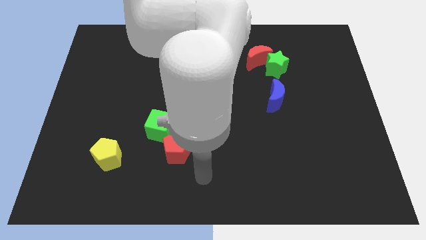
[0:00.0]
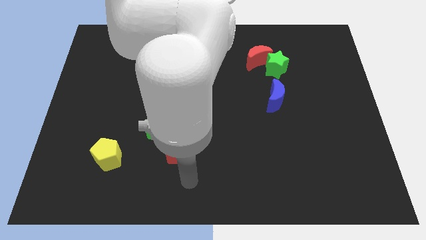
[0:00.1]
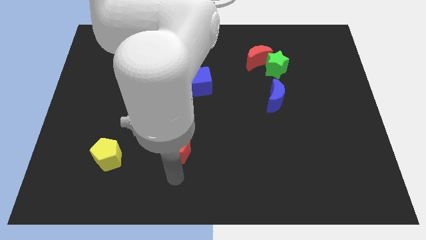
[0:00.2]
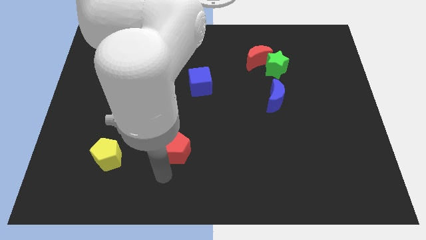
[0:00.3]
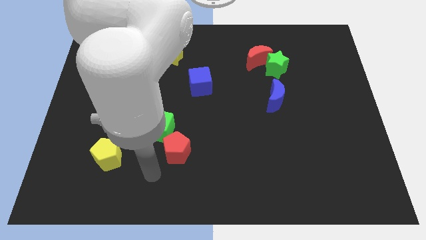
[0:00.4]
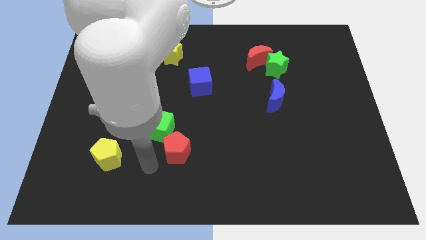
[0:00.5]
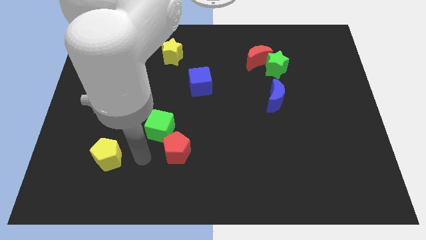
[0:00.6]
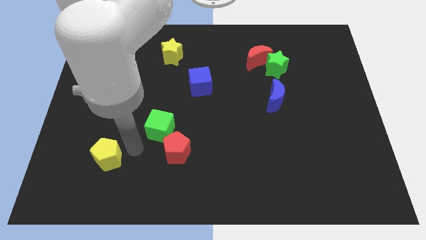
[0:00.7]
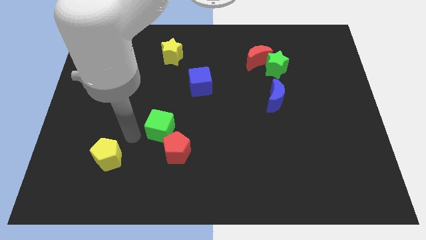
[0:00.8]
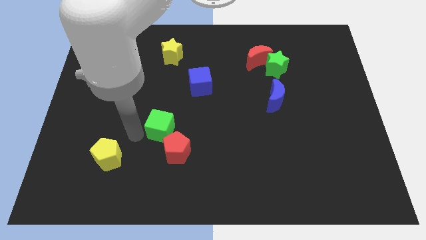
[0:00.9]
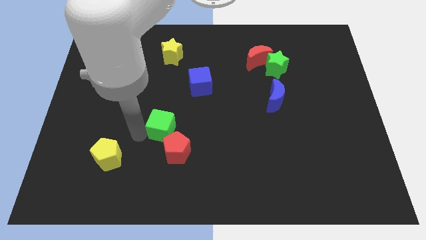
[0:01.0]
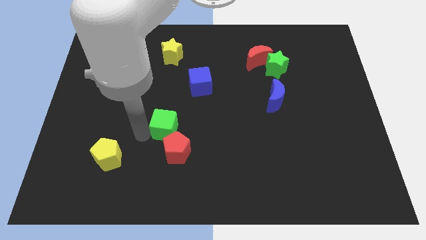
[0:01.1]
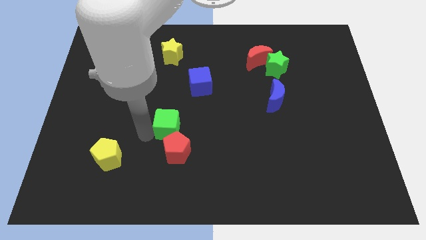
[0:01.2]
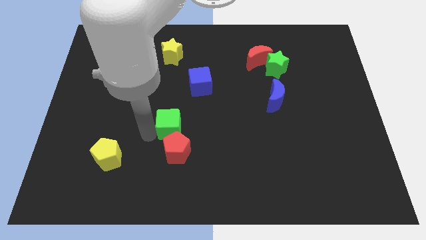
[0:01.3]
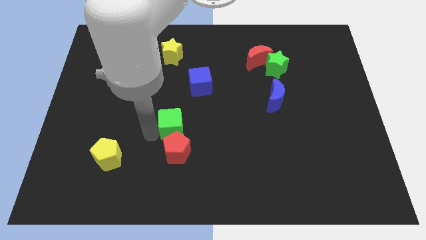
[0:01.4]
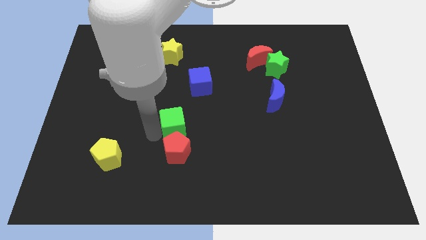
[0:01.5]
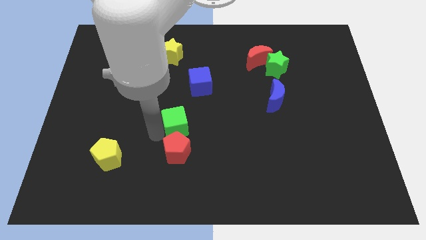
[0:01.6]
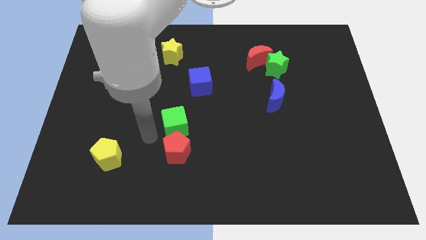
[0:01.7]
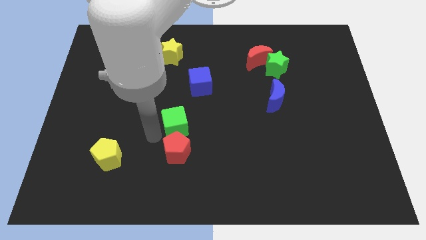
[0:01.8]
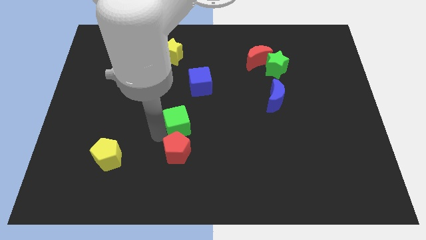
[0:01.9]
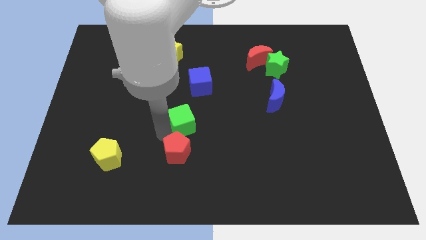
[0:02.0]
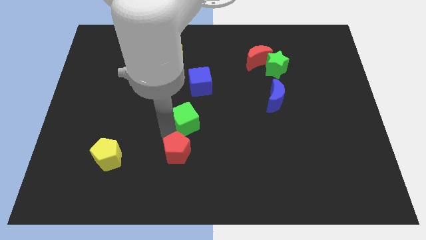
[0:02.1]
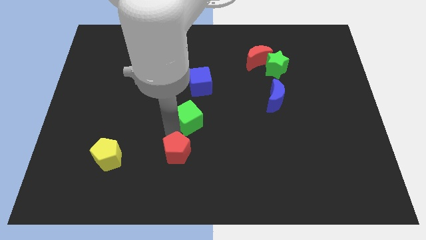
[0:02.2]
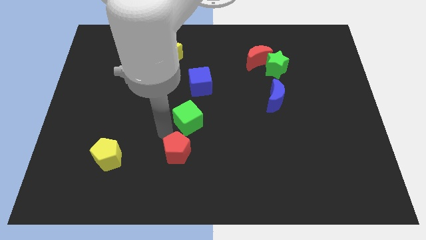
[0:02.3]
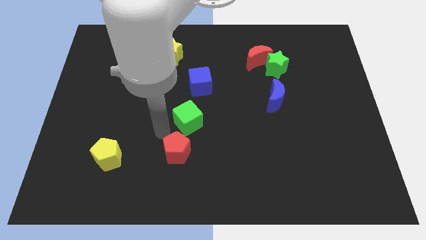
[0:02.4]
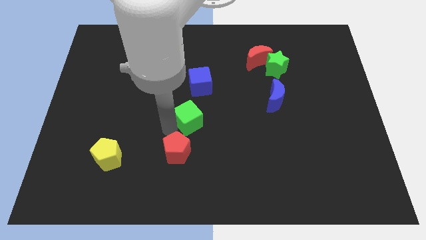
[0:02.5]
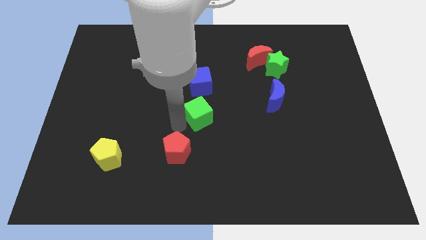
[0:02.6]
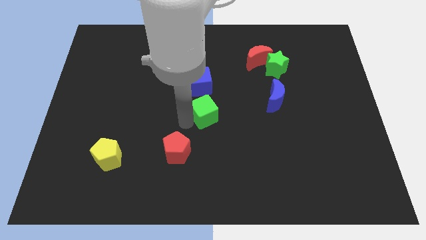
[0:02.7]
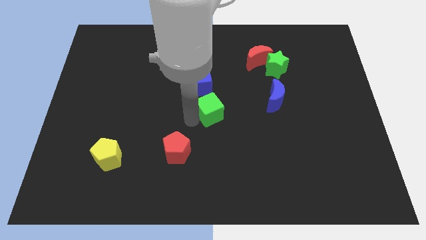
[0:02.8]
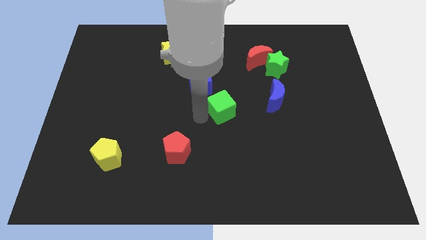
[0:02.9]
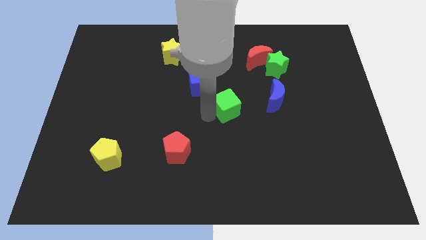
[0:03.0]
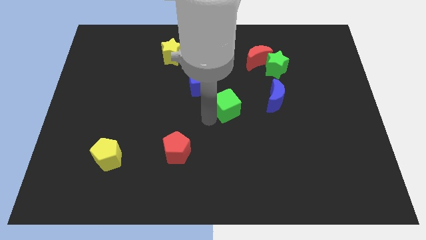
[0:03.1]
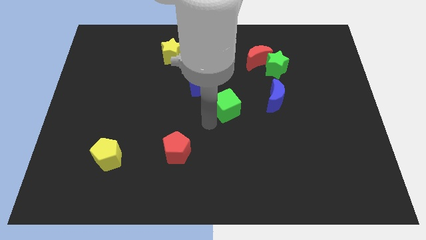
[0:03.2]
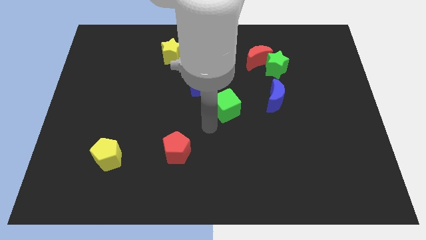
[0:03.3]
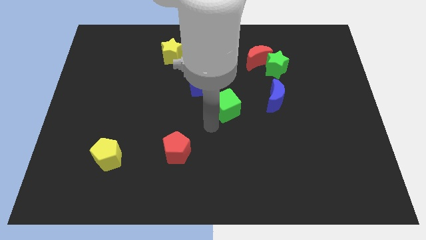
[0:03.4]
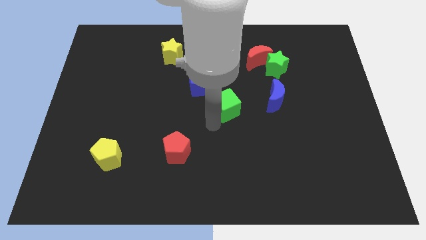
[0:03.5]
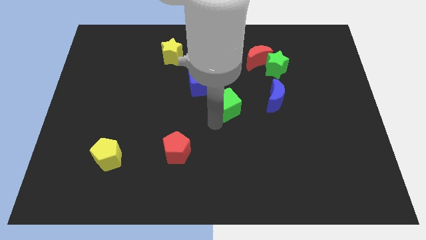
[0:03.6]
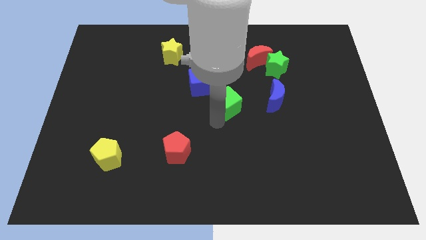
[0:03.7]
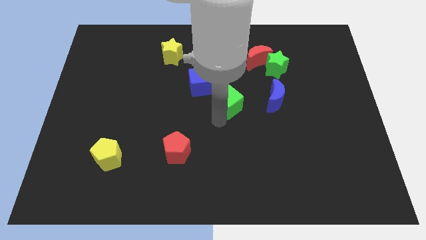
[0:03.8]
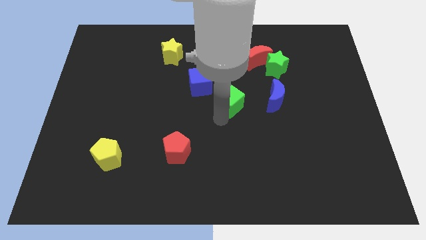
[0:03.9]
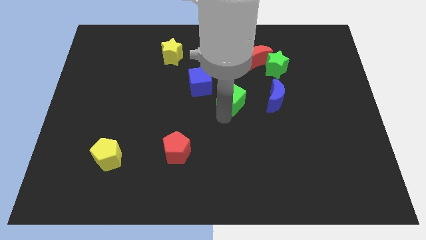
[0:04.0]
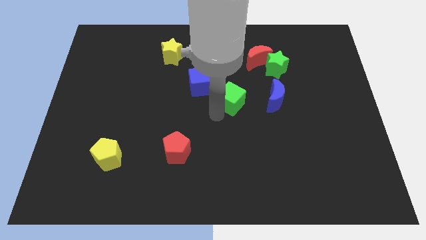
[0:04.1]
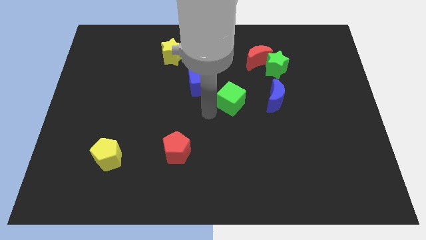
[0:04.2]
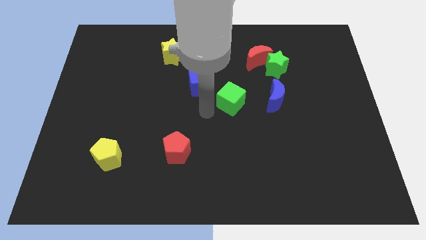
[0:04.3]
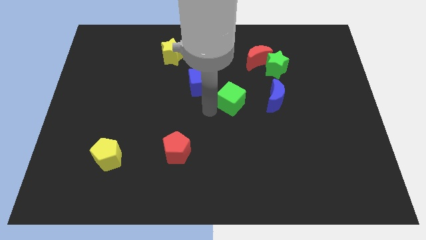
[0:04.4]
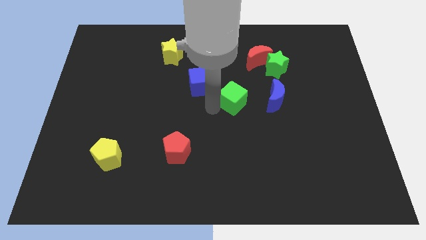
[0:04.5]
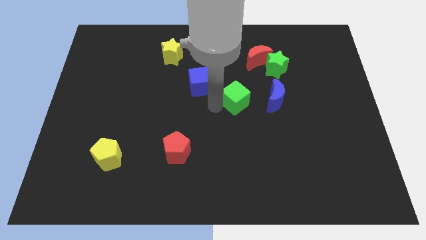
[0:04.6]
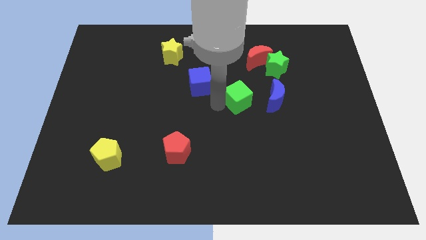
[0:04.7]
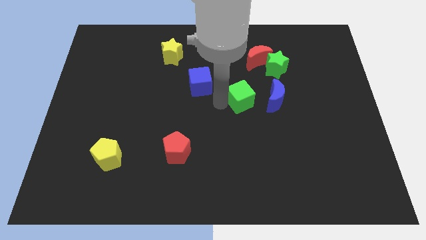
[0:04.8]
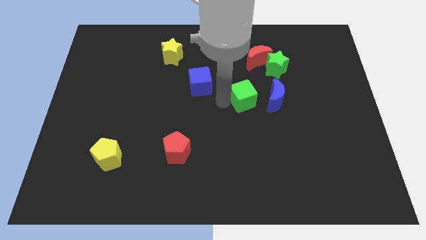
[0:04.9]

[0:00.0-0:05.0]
push the green cube below the red moon

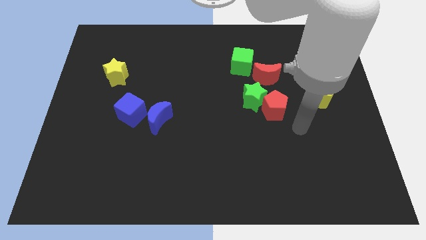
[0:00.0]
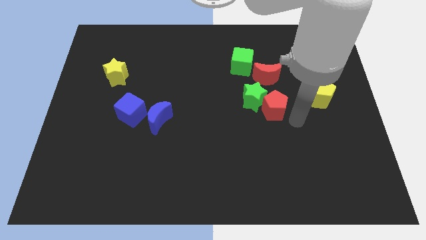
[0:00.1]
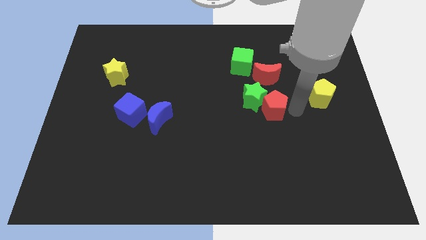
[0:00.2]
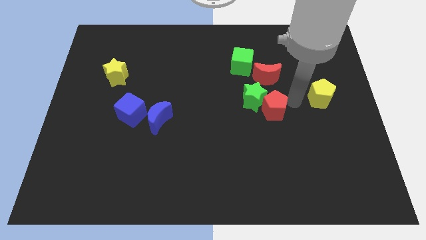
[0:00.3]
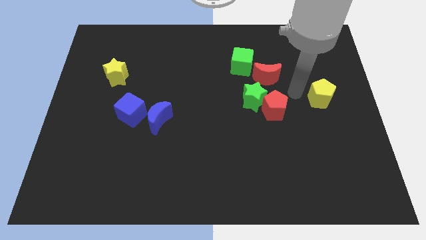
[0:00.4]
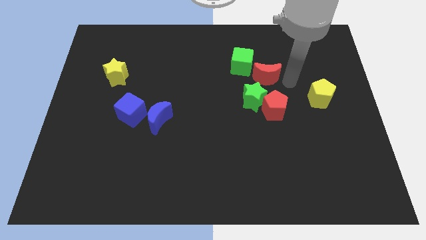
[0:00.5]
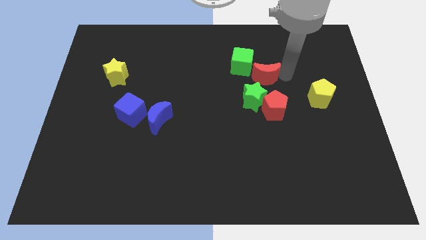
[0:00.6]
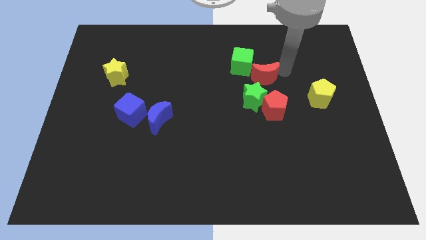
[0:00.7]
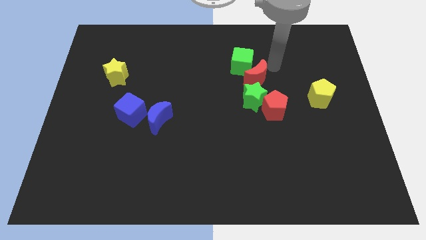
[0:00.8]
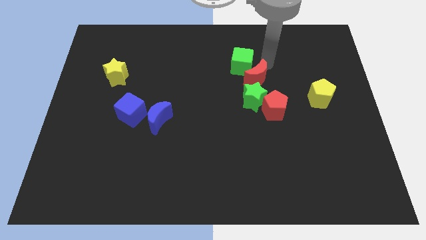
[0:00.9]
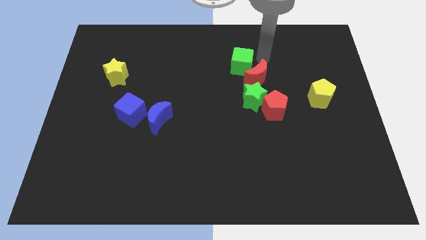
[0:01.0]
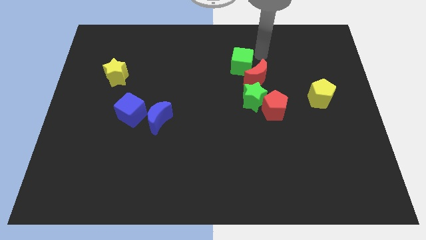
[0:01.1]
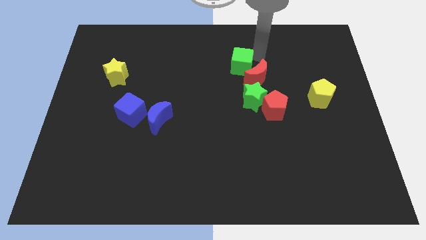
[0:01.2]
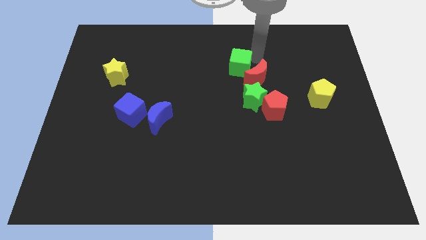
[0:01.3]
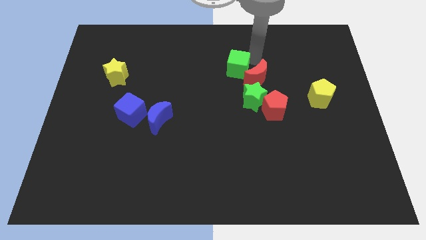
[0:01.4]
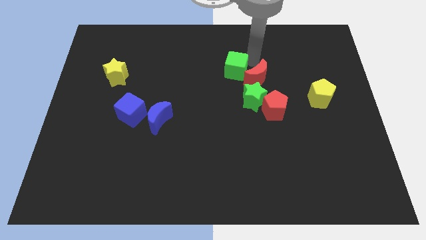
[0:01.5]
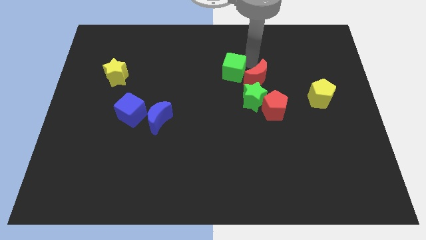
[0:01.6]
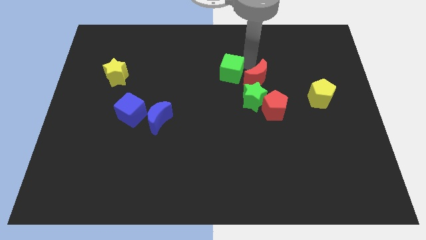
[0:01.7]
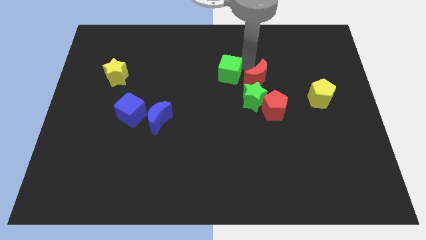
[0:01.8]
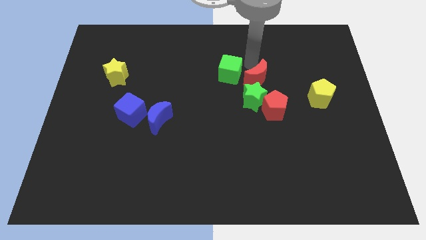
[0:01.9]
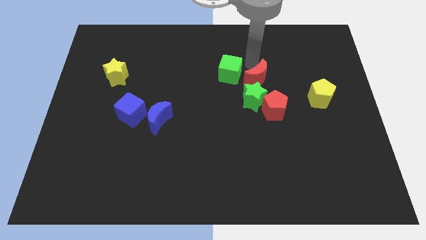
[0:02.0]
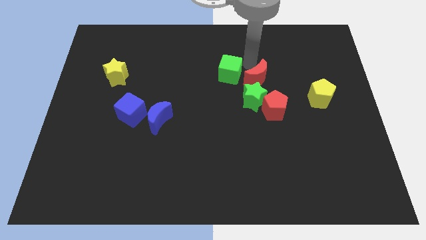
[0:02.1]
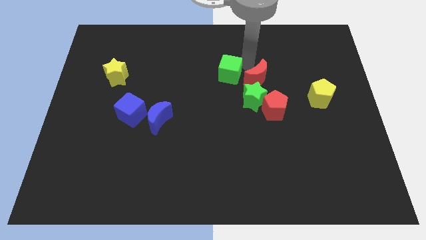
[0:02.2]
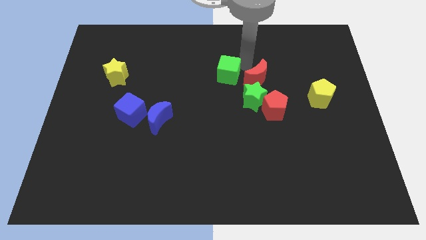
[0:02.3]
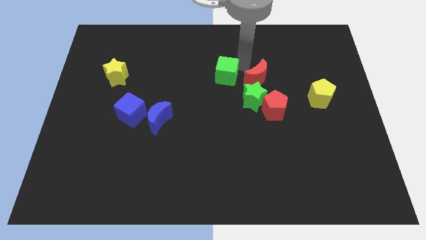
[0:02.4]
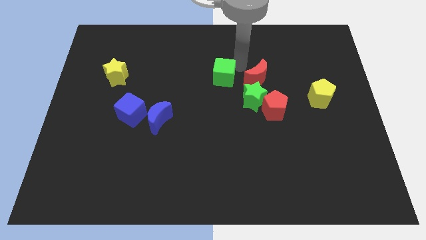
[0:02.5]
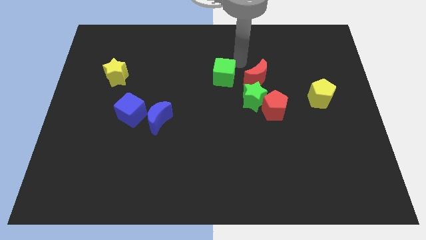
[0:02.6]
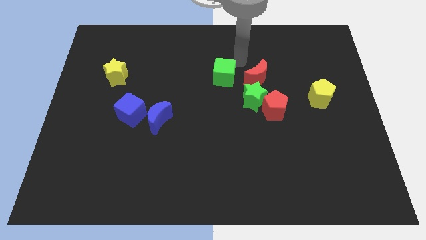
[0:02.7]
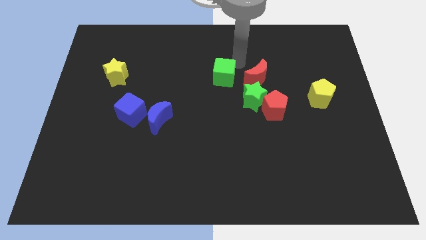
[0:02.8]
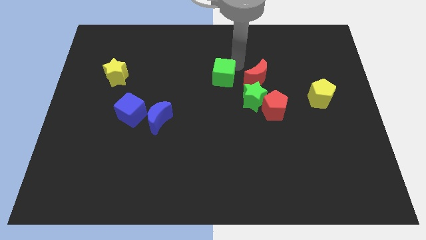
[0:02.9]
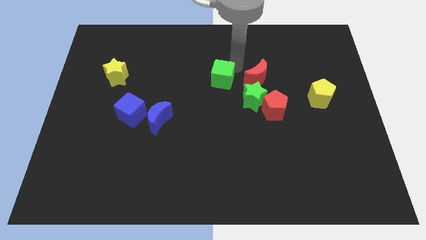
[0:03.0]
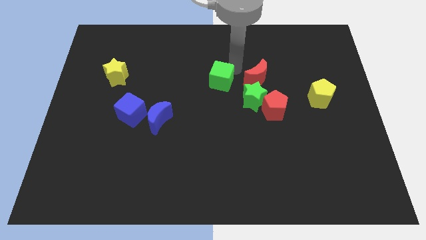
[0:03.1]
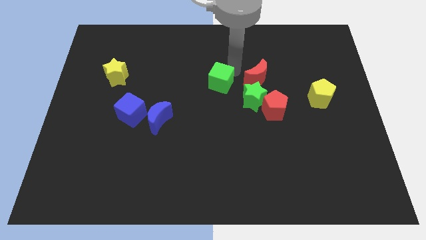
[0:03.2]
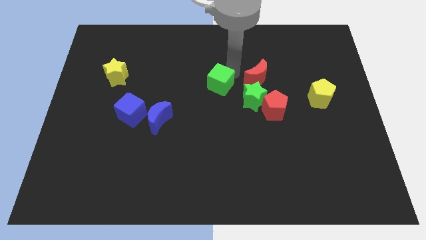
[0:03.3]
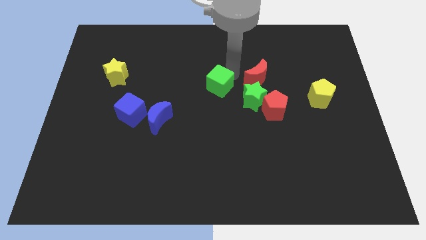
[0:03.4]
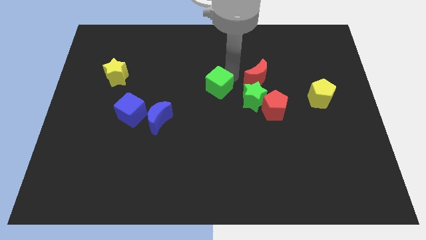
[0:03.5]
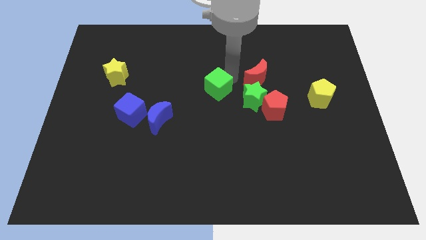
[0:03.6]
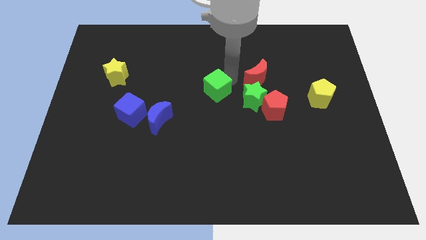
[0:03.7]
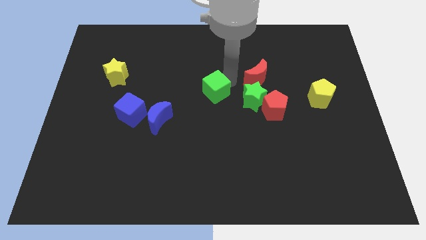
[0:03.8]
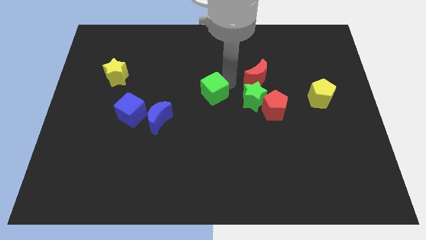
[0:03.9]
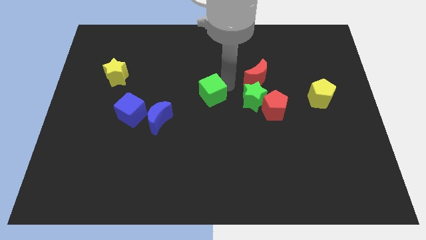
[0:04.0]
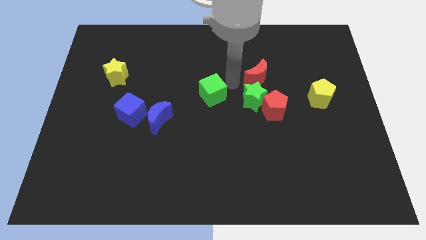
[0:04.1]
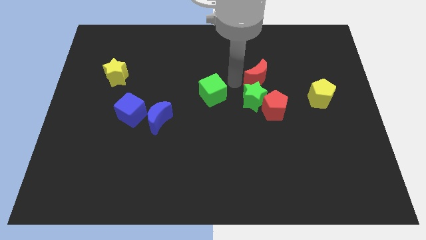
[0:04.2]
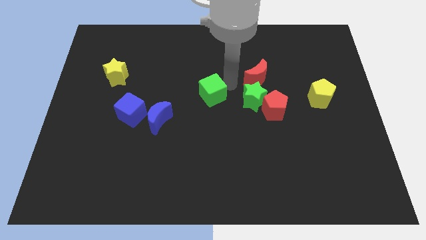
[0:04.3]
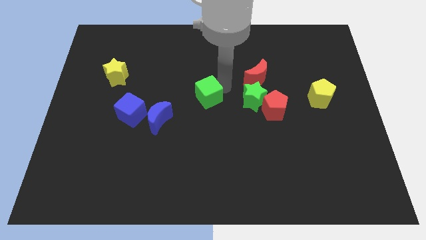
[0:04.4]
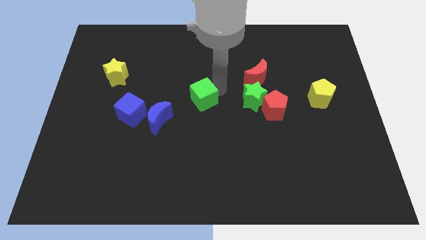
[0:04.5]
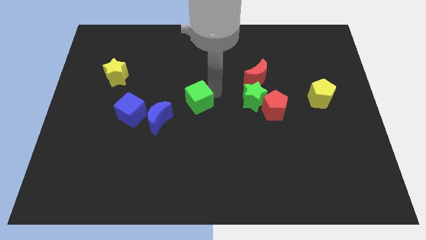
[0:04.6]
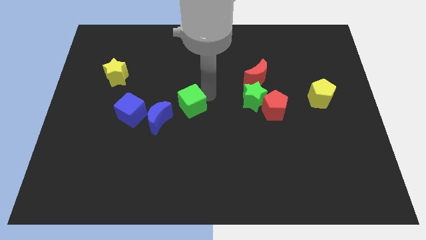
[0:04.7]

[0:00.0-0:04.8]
push the green cube to the right side of the blue cube
